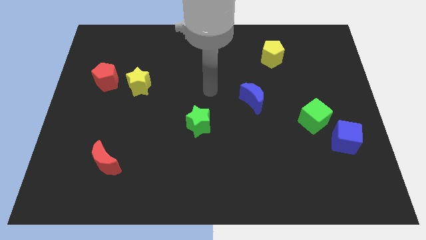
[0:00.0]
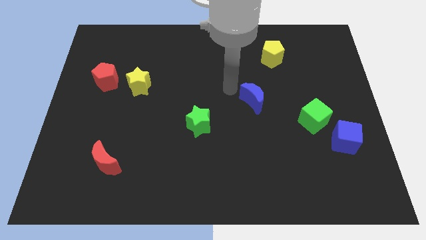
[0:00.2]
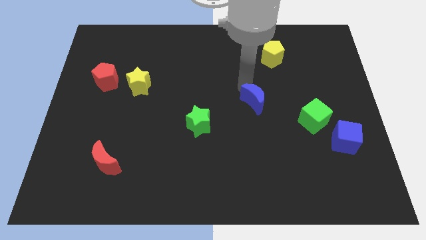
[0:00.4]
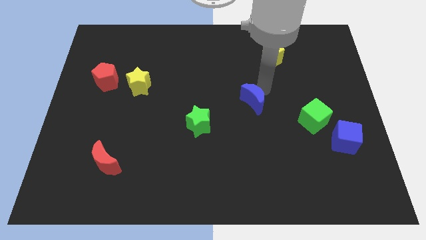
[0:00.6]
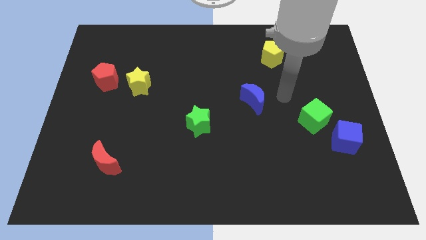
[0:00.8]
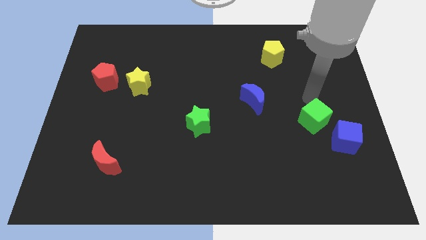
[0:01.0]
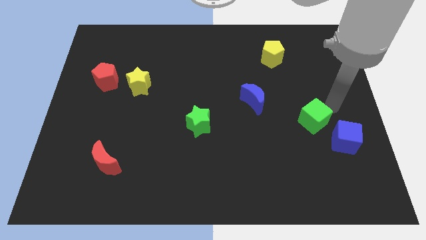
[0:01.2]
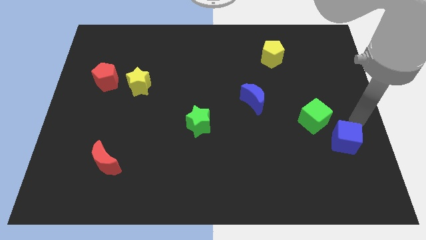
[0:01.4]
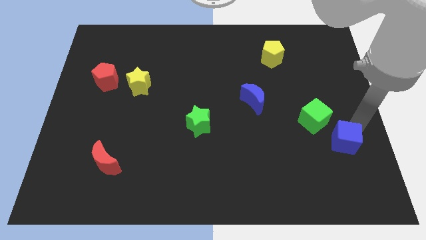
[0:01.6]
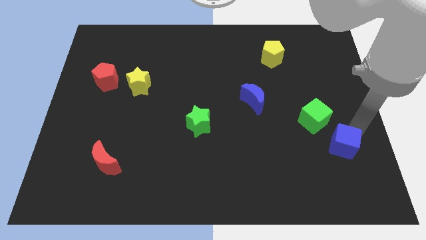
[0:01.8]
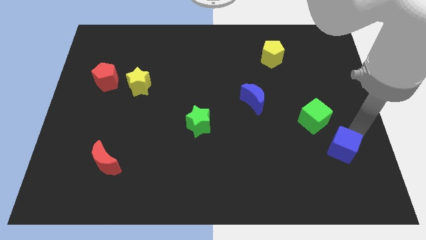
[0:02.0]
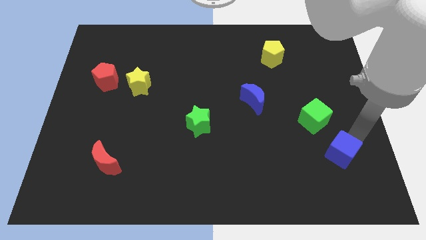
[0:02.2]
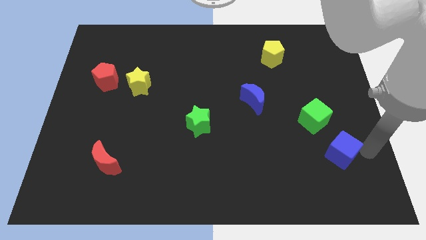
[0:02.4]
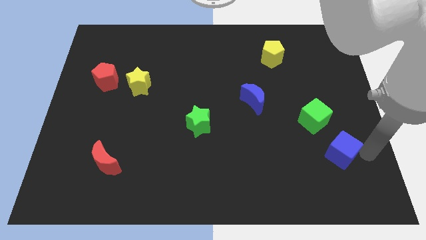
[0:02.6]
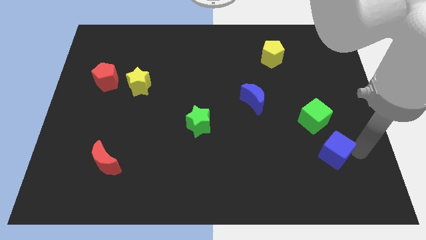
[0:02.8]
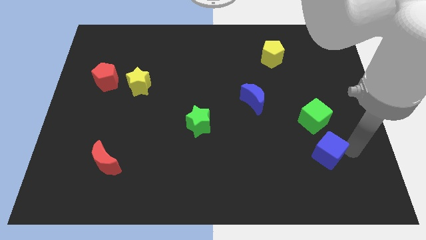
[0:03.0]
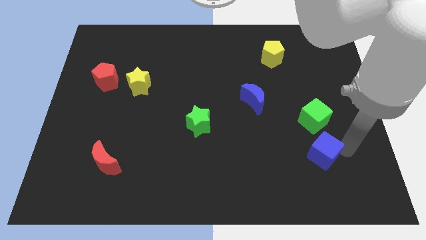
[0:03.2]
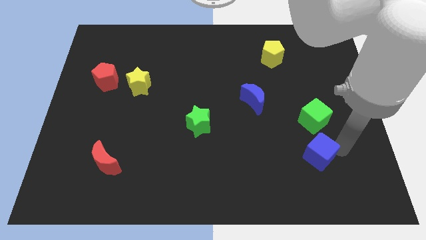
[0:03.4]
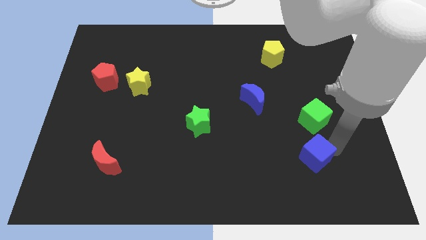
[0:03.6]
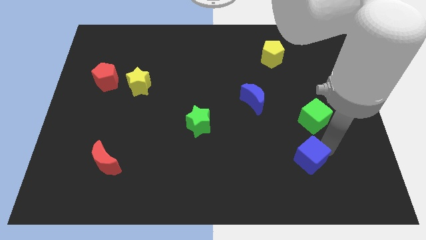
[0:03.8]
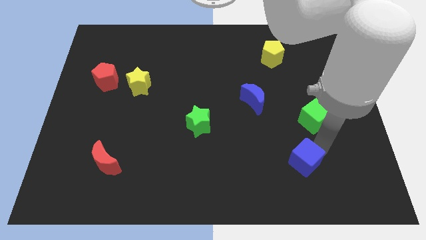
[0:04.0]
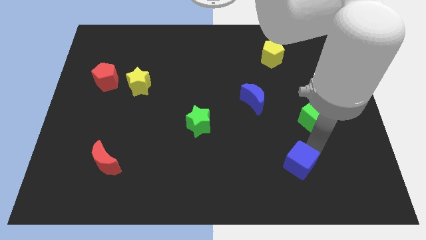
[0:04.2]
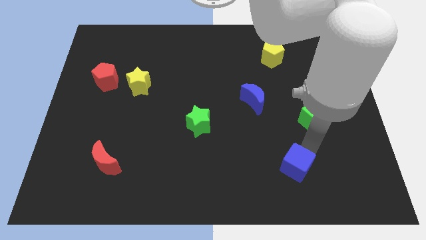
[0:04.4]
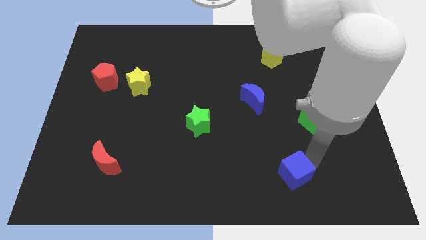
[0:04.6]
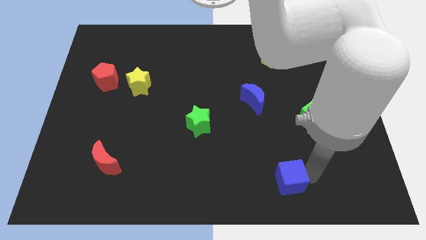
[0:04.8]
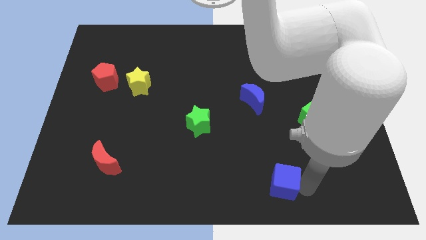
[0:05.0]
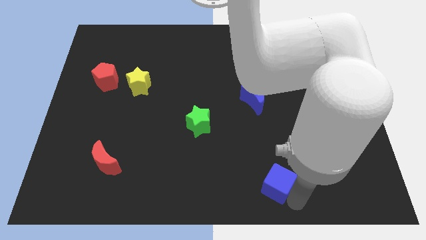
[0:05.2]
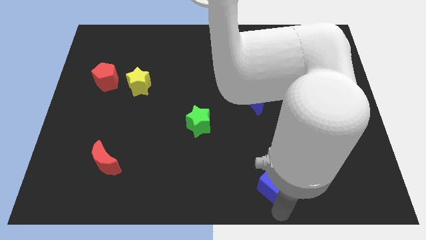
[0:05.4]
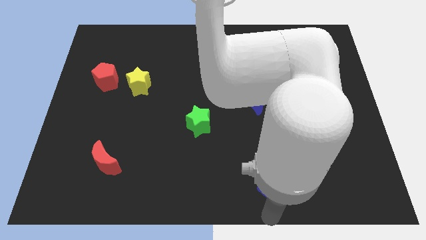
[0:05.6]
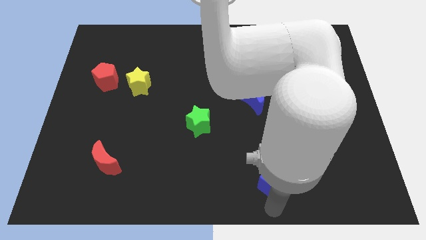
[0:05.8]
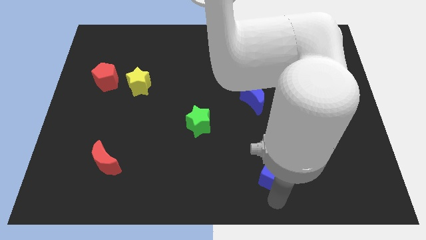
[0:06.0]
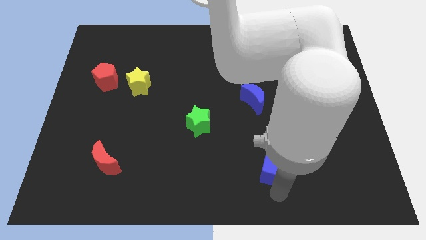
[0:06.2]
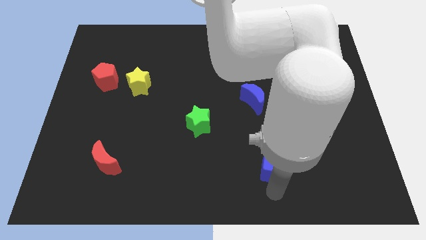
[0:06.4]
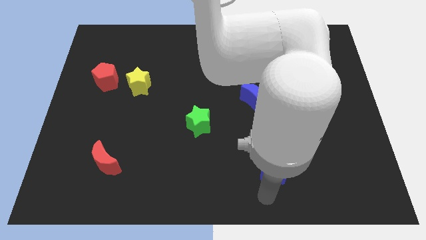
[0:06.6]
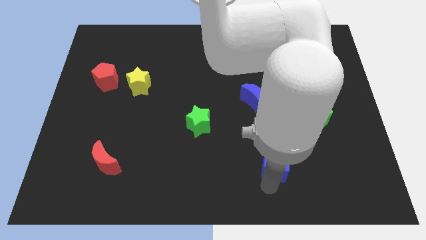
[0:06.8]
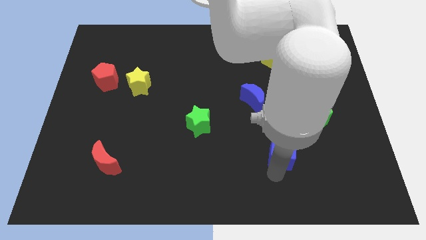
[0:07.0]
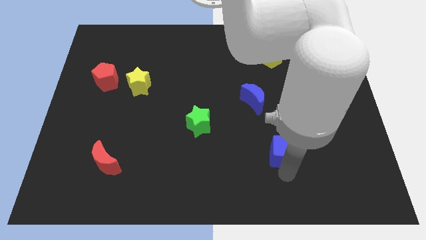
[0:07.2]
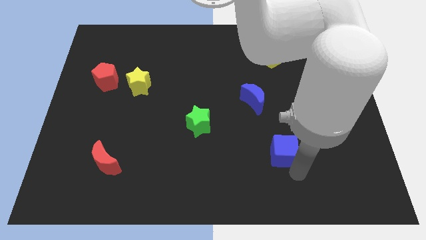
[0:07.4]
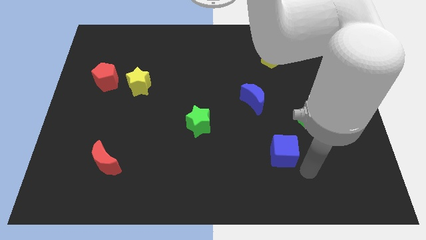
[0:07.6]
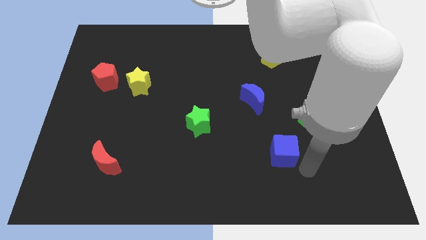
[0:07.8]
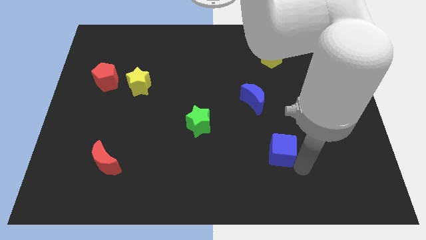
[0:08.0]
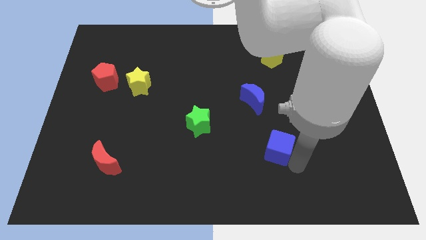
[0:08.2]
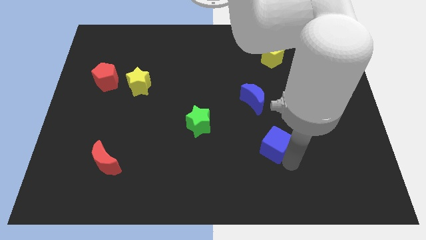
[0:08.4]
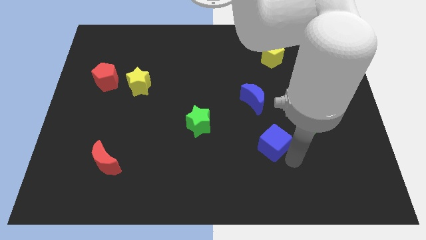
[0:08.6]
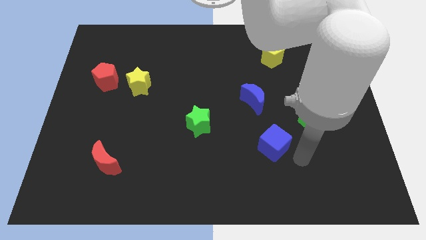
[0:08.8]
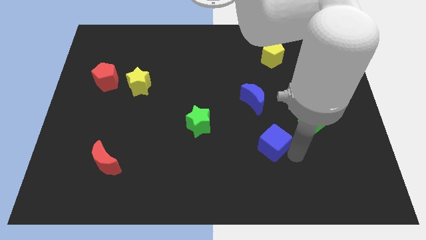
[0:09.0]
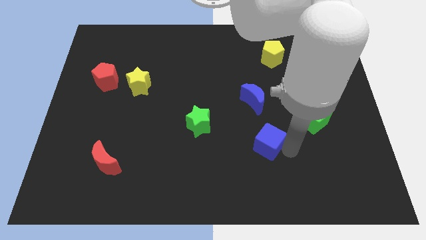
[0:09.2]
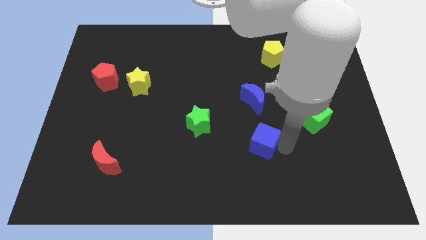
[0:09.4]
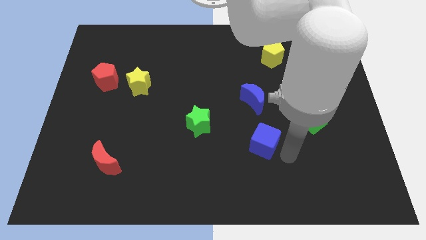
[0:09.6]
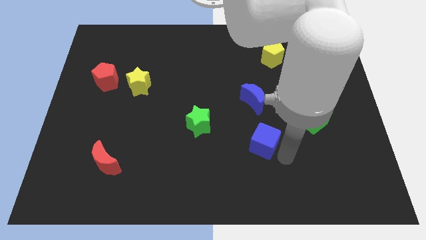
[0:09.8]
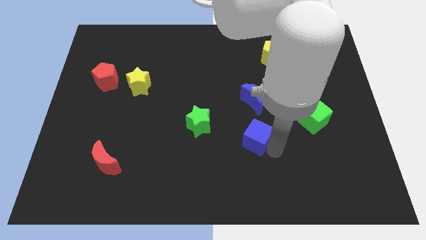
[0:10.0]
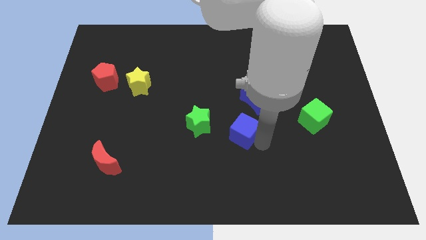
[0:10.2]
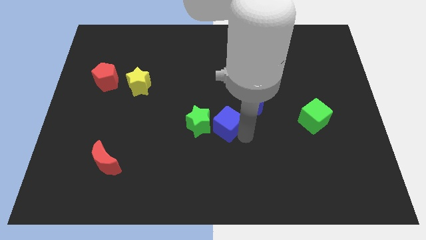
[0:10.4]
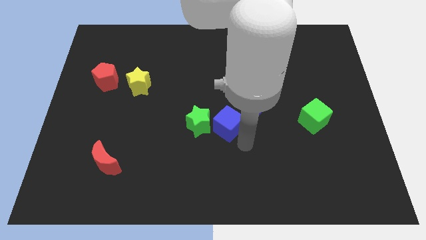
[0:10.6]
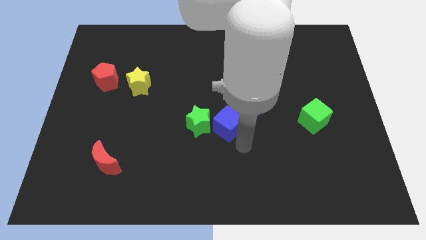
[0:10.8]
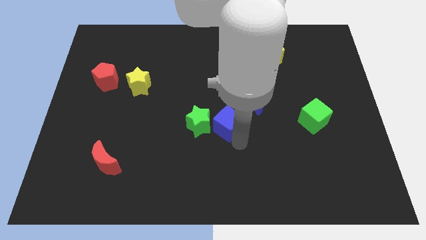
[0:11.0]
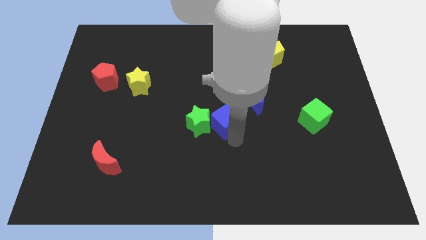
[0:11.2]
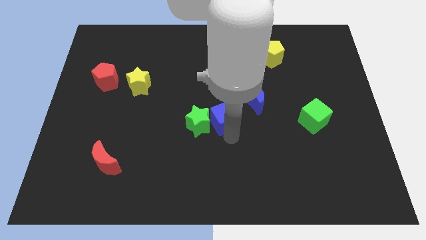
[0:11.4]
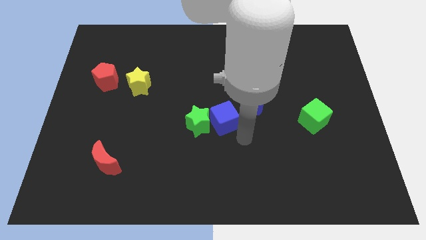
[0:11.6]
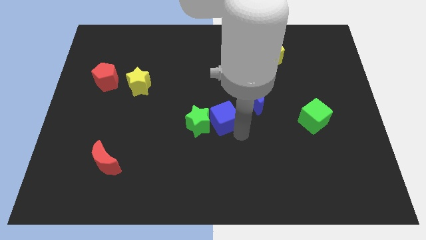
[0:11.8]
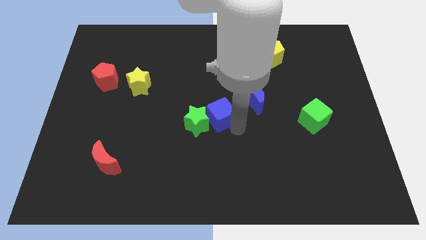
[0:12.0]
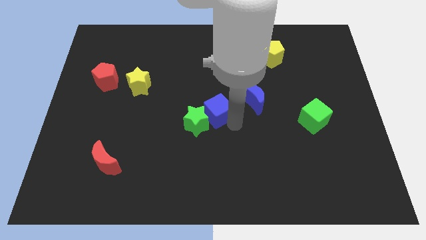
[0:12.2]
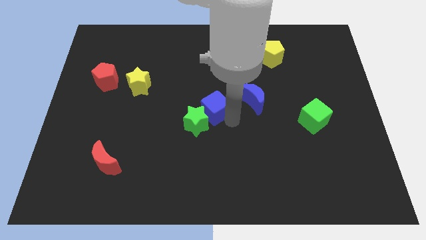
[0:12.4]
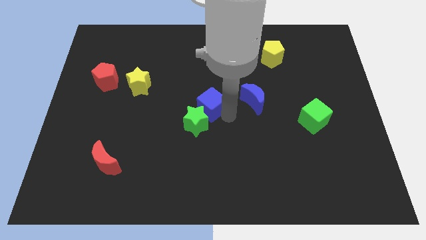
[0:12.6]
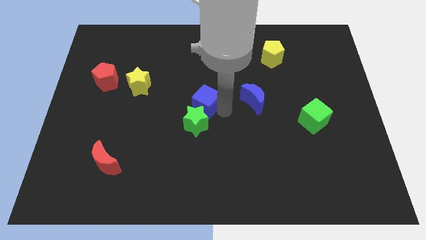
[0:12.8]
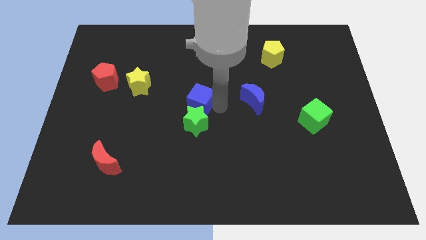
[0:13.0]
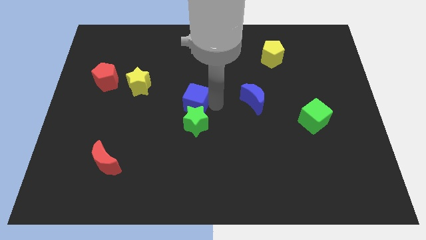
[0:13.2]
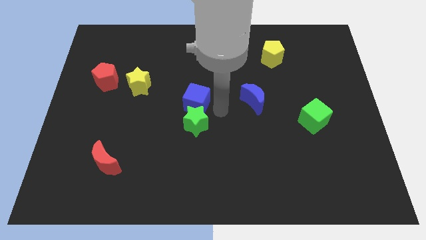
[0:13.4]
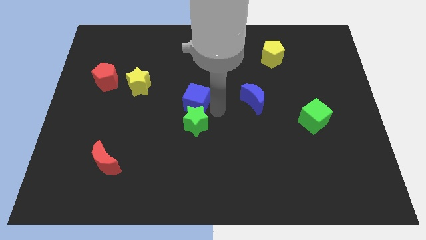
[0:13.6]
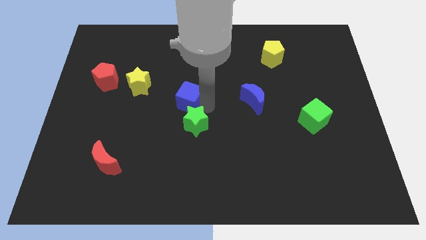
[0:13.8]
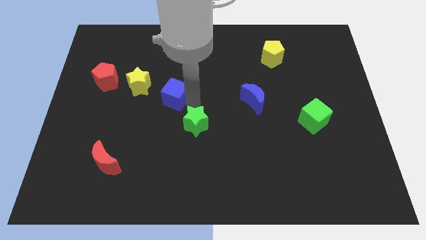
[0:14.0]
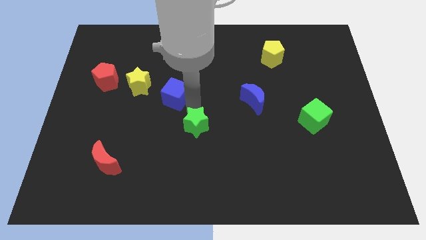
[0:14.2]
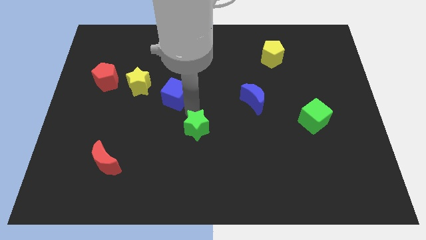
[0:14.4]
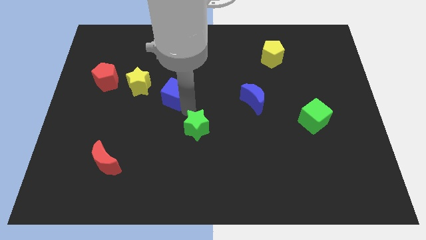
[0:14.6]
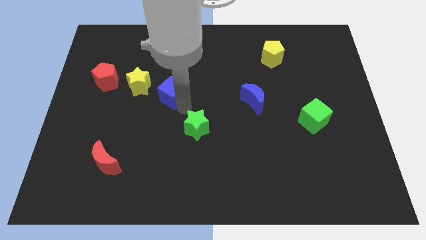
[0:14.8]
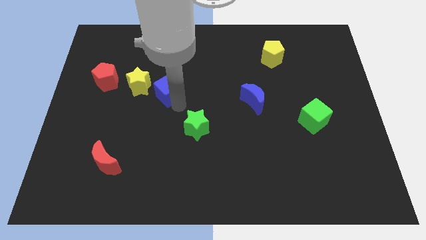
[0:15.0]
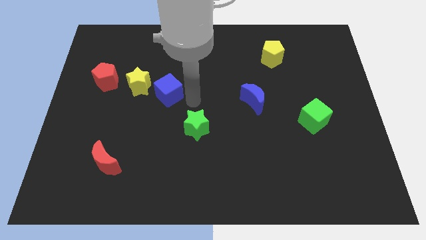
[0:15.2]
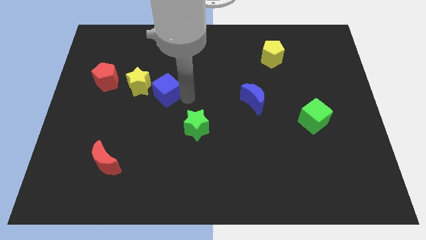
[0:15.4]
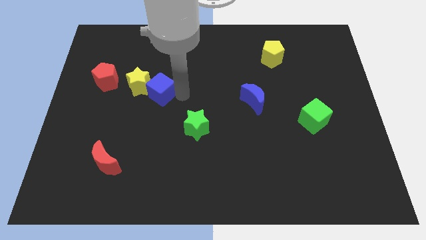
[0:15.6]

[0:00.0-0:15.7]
move the blue cube close to the yellow star
